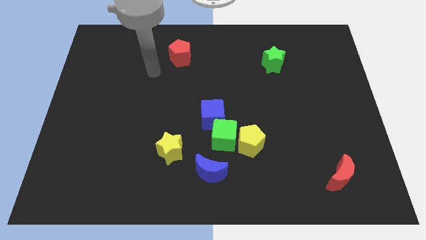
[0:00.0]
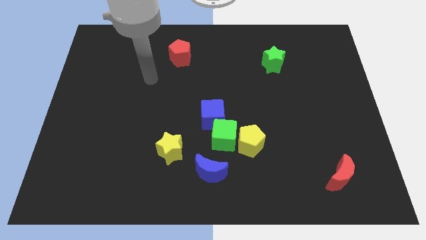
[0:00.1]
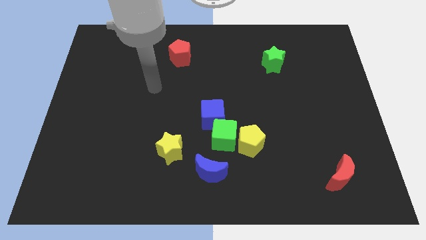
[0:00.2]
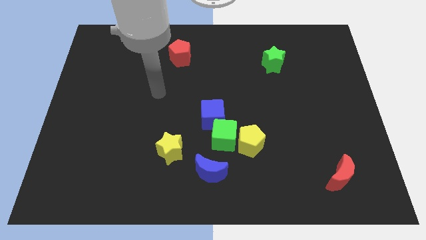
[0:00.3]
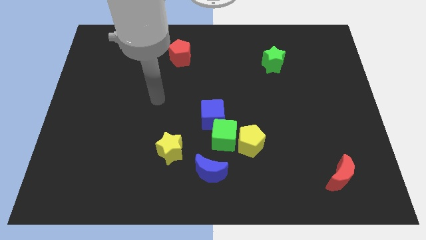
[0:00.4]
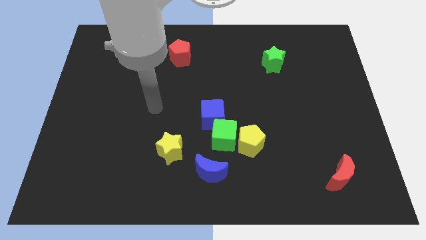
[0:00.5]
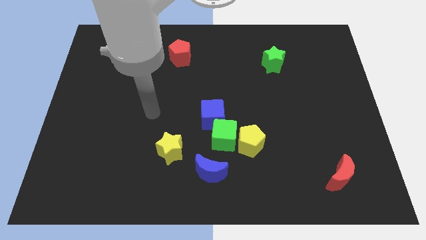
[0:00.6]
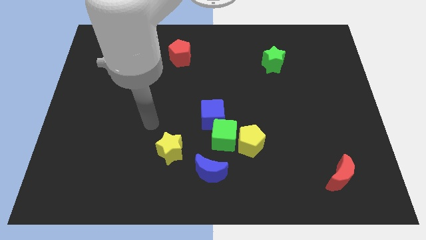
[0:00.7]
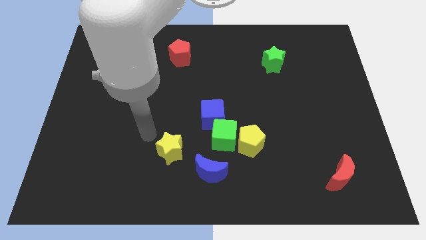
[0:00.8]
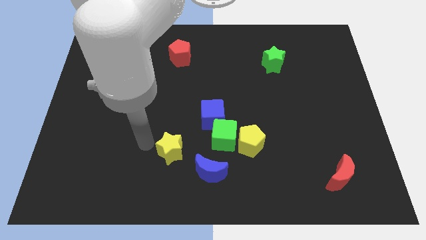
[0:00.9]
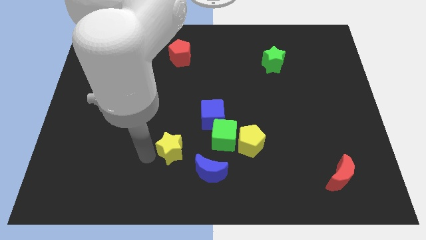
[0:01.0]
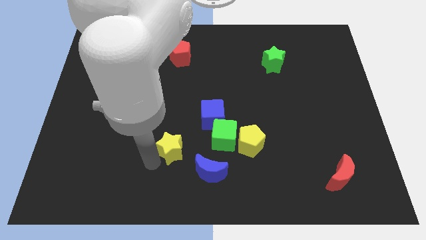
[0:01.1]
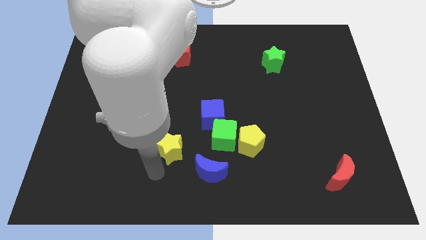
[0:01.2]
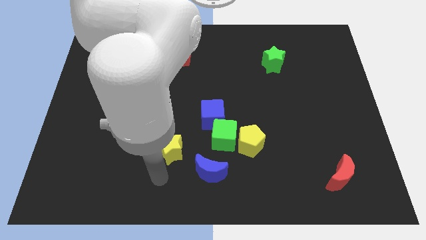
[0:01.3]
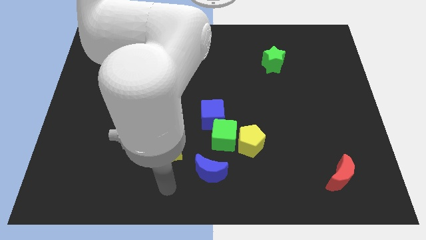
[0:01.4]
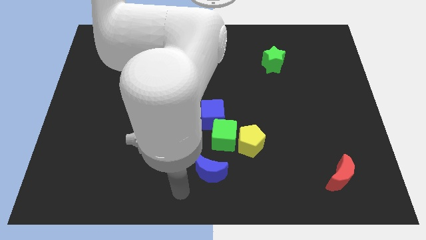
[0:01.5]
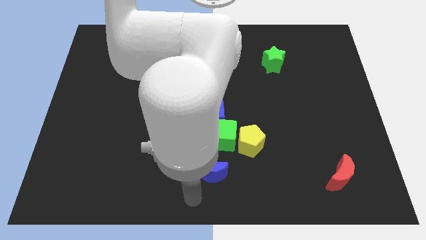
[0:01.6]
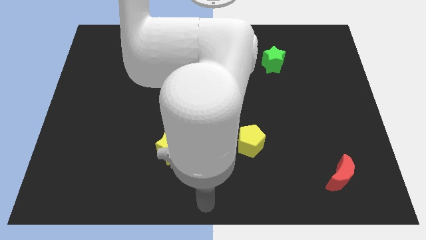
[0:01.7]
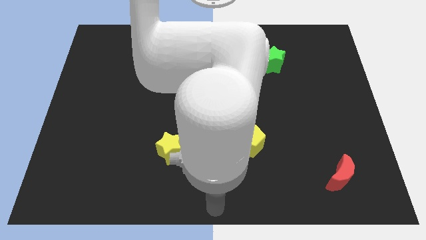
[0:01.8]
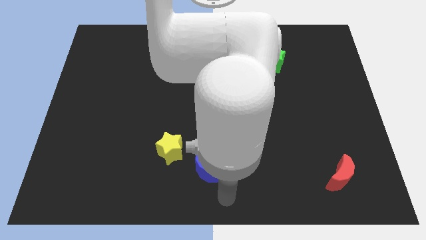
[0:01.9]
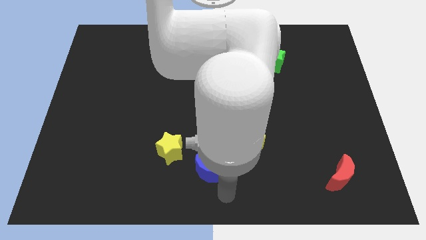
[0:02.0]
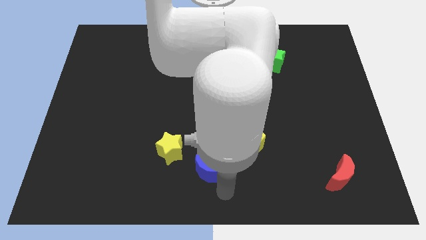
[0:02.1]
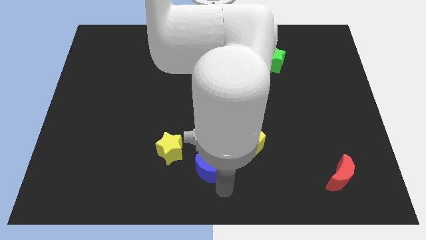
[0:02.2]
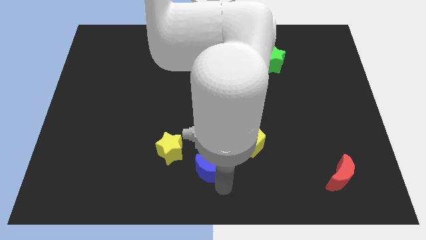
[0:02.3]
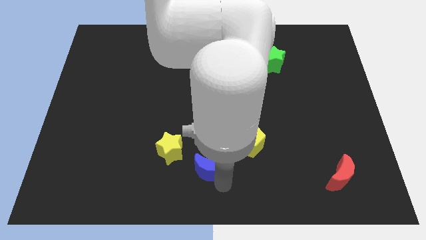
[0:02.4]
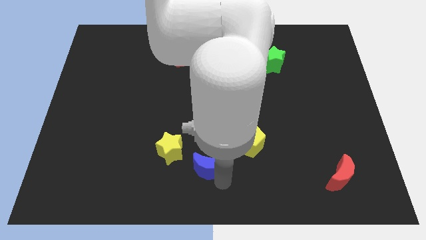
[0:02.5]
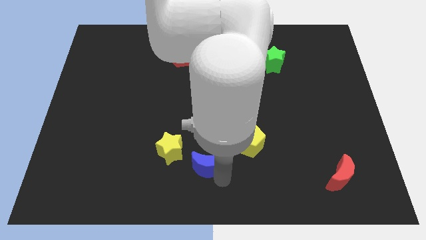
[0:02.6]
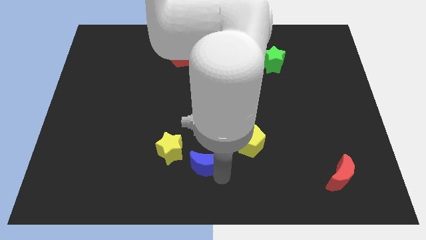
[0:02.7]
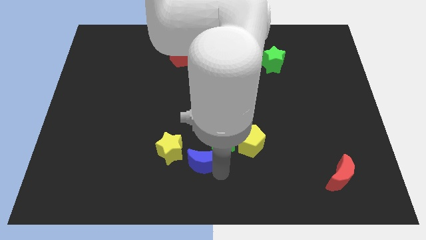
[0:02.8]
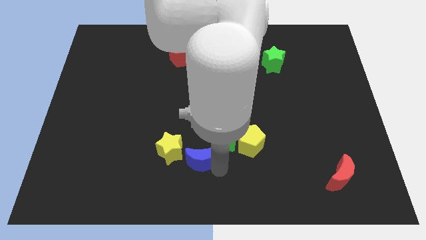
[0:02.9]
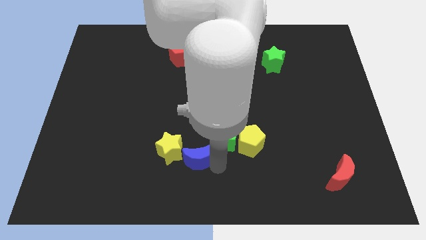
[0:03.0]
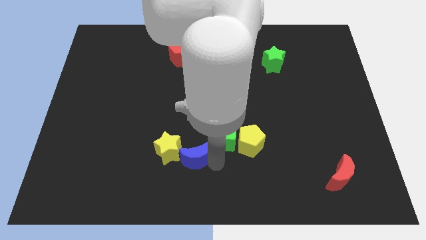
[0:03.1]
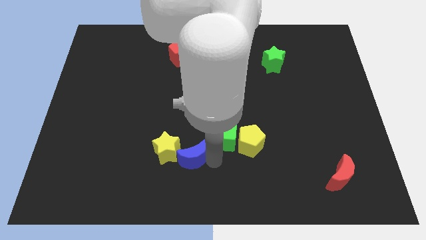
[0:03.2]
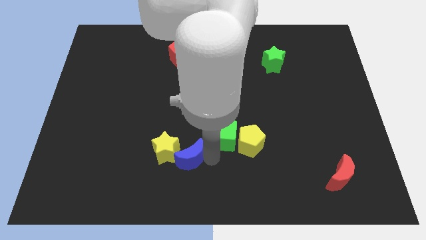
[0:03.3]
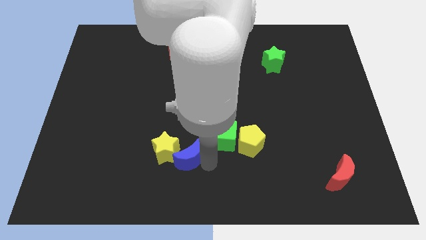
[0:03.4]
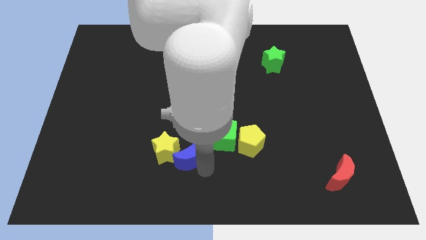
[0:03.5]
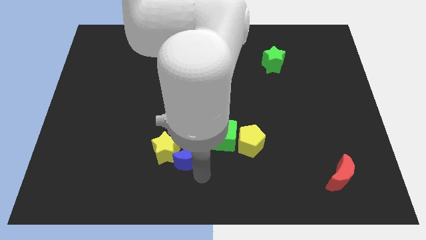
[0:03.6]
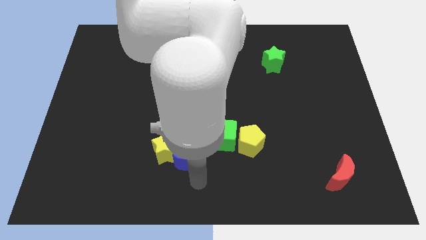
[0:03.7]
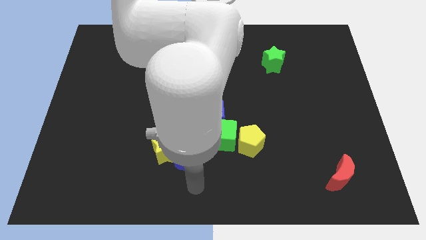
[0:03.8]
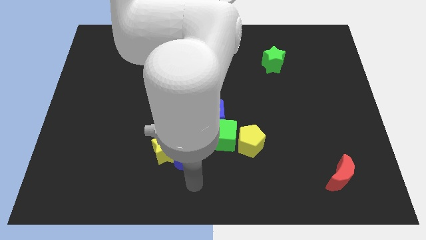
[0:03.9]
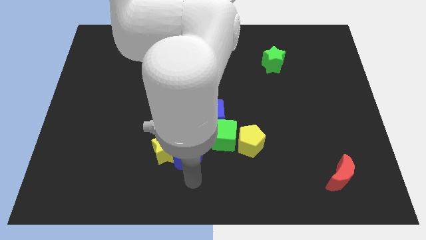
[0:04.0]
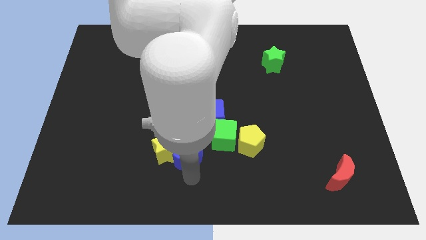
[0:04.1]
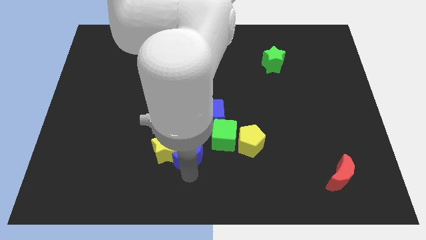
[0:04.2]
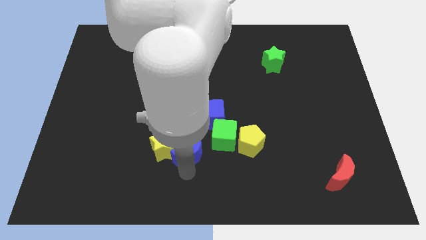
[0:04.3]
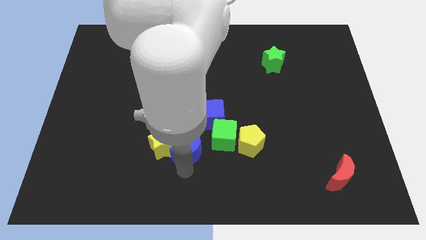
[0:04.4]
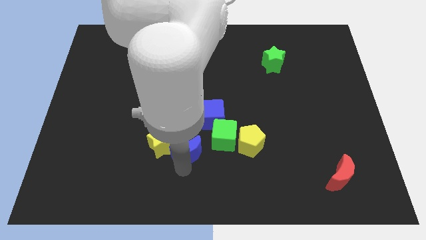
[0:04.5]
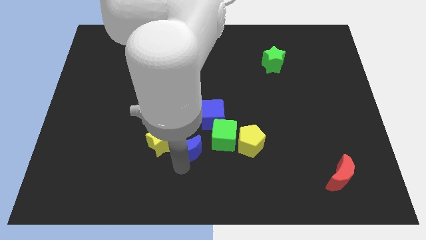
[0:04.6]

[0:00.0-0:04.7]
slightly move the blue moon diagonally upwards and to the left

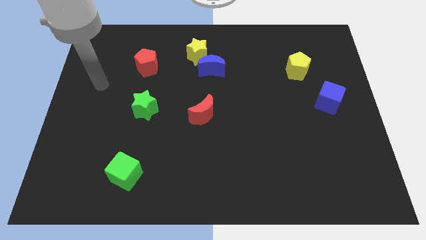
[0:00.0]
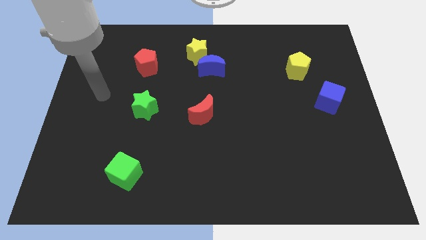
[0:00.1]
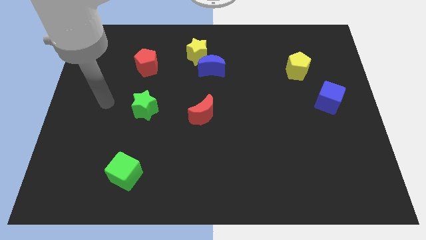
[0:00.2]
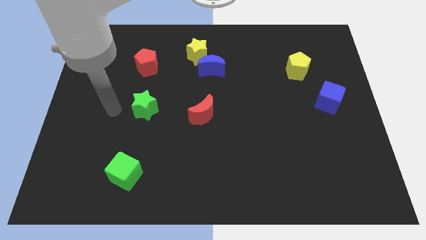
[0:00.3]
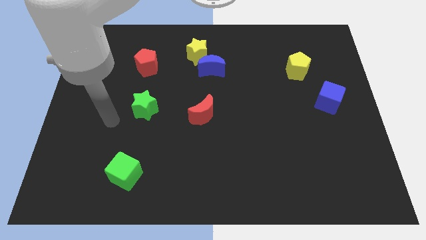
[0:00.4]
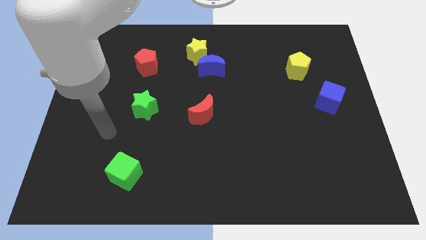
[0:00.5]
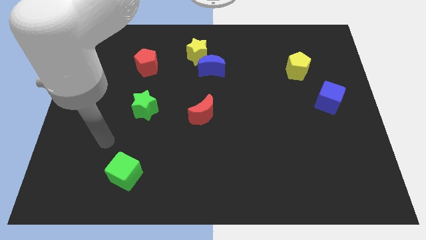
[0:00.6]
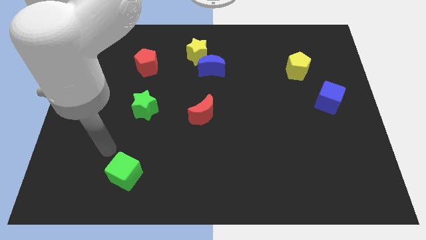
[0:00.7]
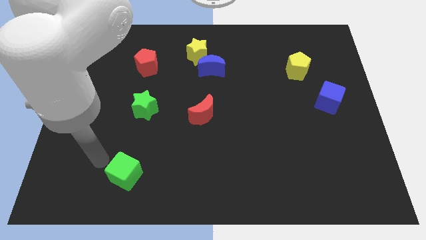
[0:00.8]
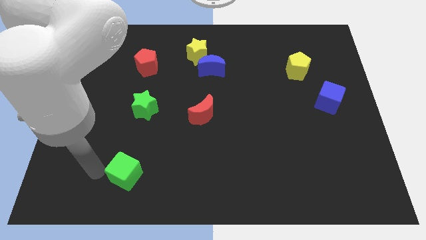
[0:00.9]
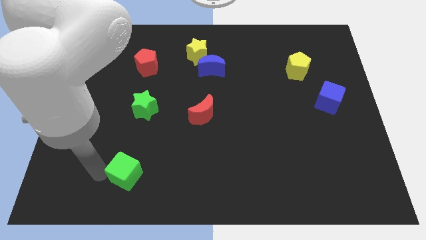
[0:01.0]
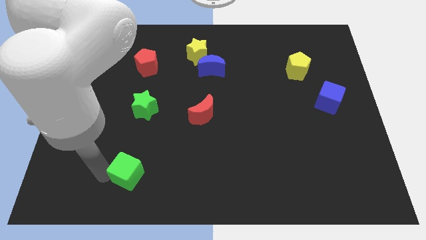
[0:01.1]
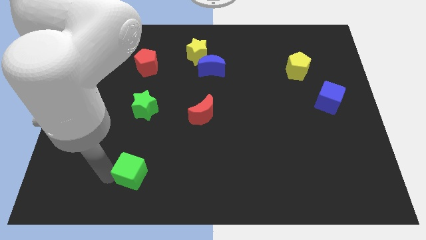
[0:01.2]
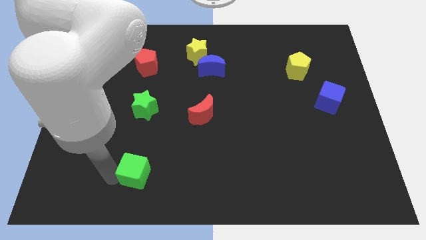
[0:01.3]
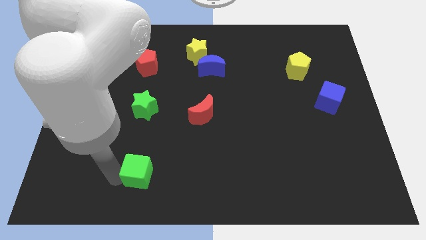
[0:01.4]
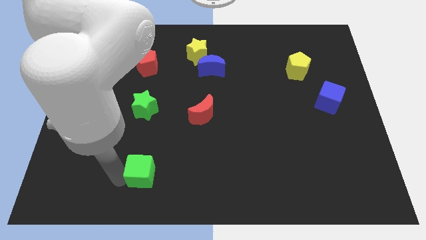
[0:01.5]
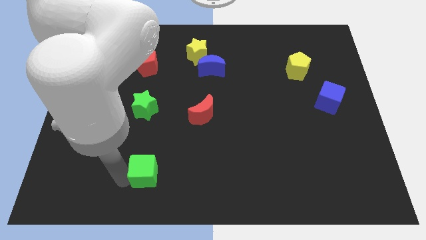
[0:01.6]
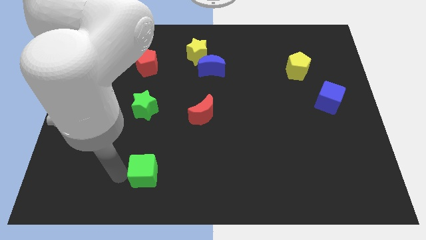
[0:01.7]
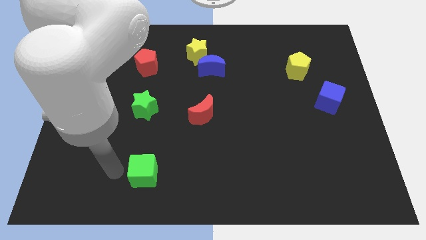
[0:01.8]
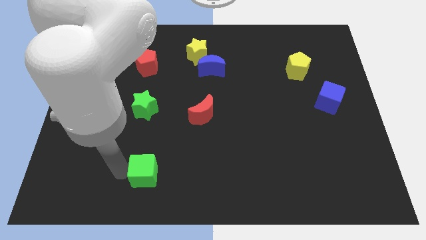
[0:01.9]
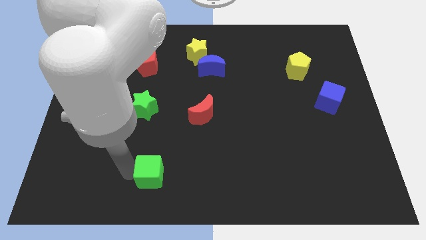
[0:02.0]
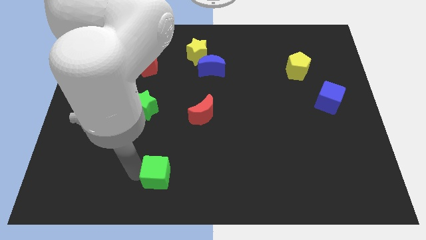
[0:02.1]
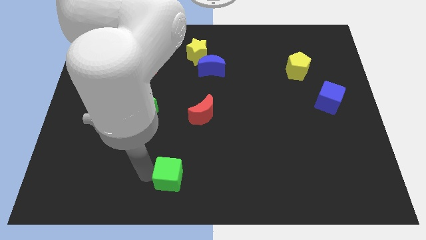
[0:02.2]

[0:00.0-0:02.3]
slightly slide the green cube to the right

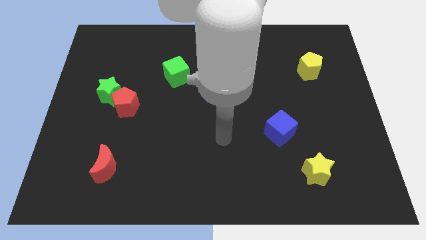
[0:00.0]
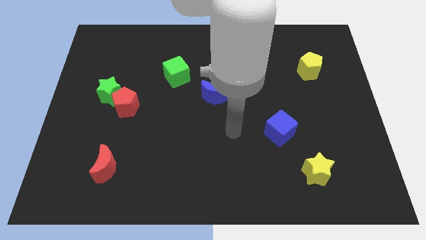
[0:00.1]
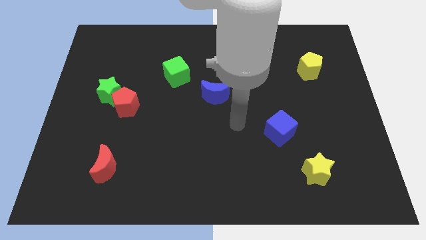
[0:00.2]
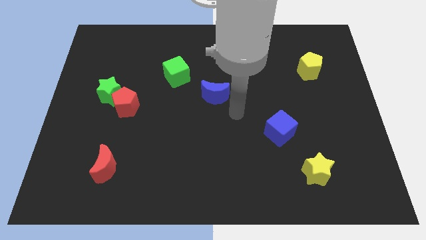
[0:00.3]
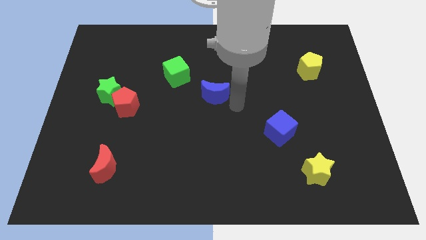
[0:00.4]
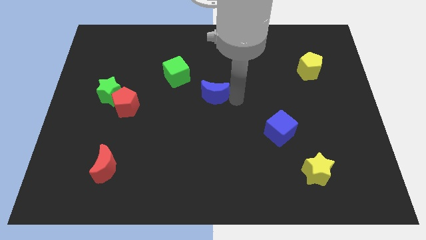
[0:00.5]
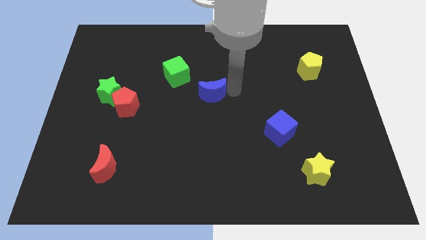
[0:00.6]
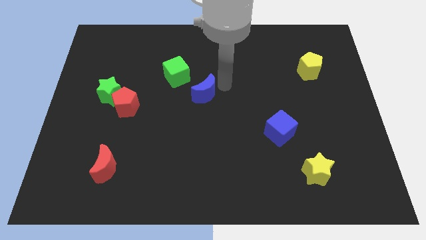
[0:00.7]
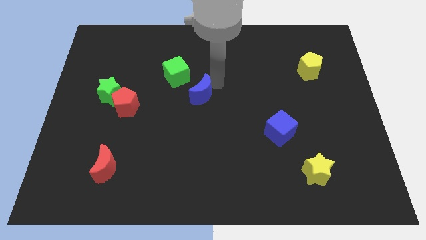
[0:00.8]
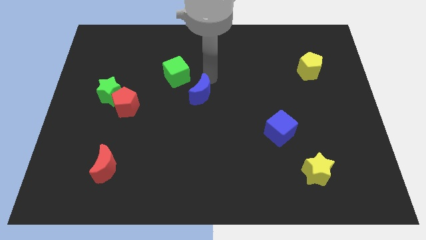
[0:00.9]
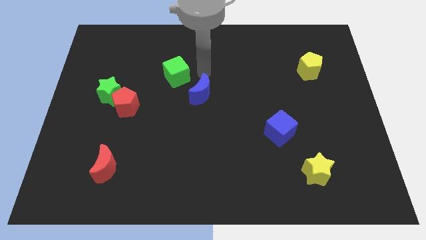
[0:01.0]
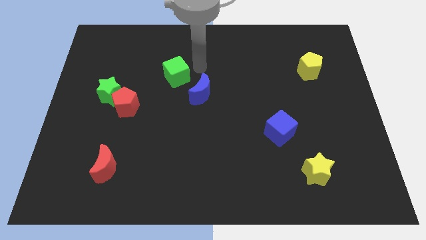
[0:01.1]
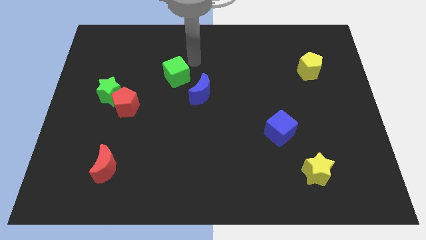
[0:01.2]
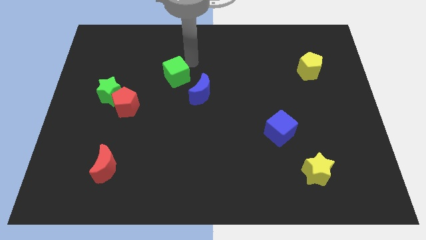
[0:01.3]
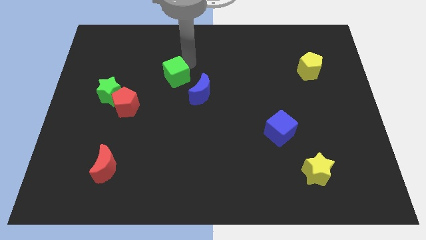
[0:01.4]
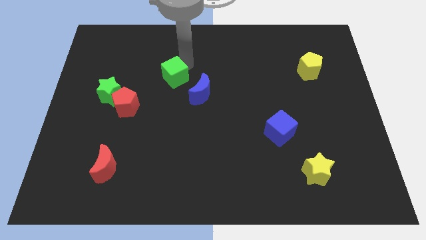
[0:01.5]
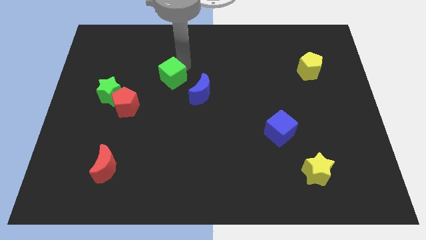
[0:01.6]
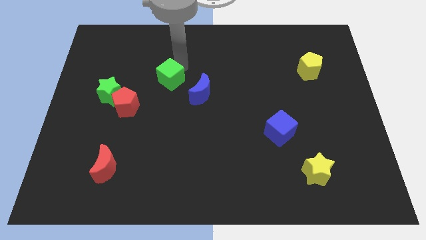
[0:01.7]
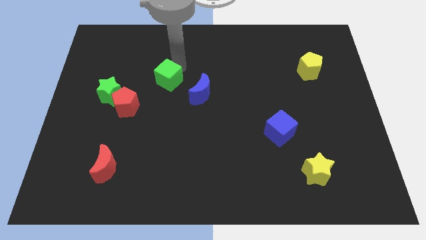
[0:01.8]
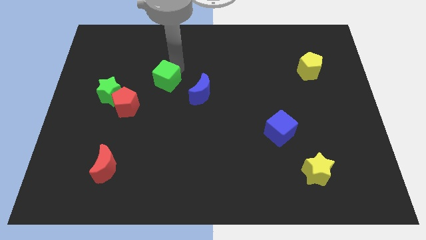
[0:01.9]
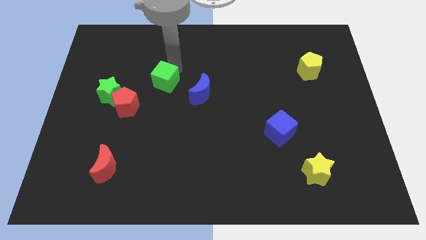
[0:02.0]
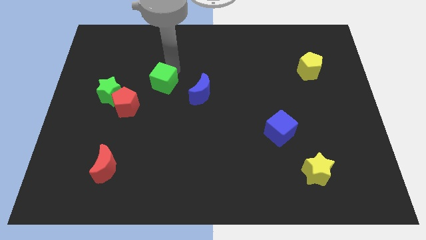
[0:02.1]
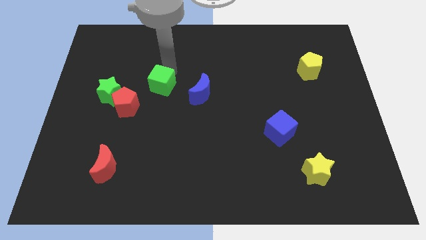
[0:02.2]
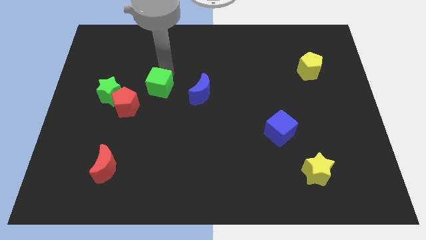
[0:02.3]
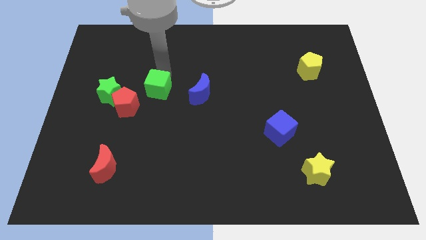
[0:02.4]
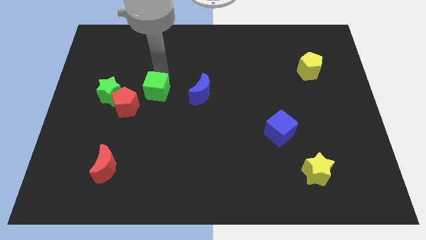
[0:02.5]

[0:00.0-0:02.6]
push the green cube slightly downwards and left diagonally
